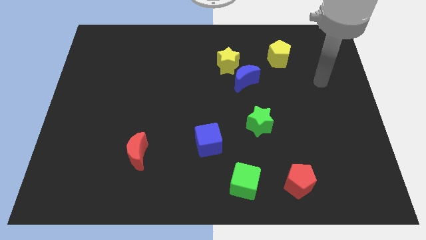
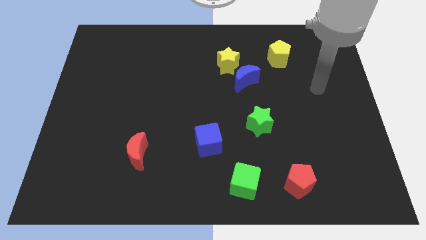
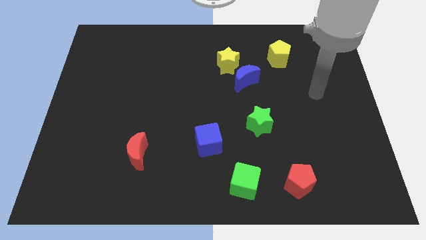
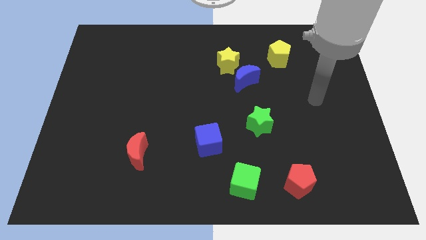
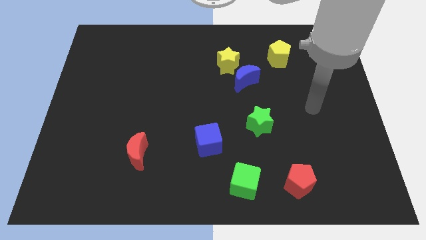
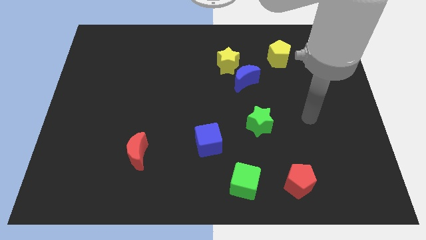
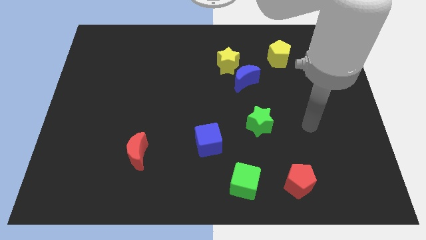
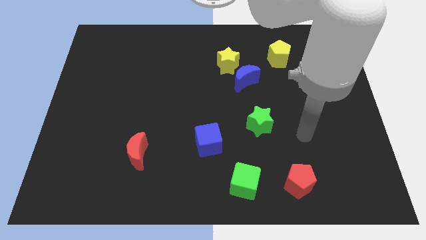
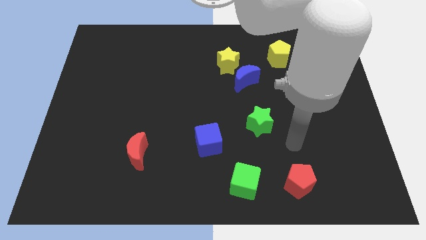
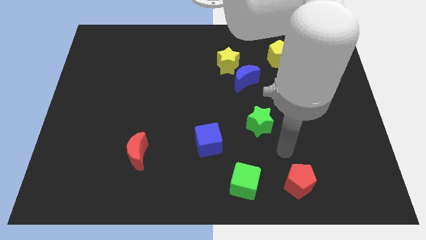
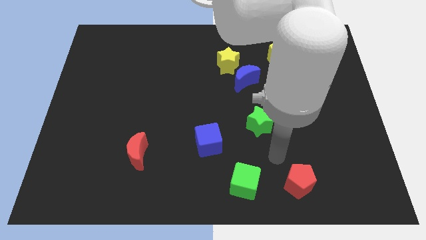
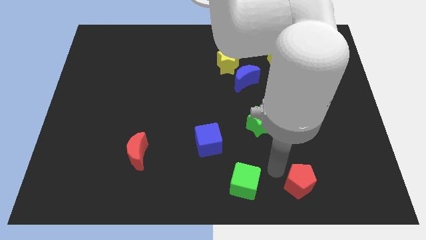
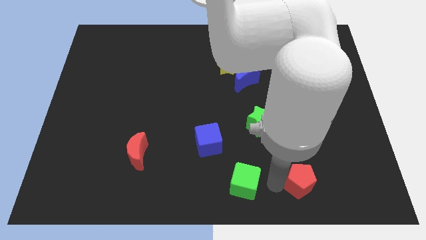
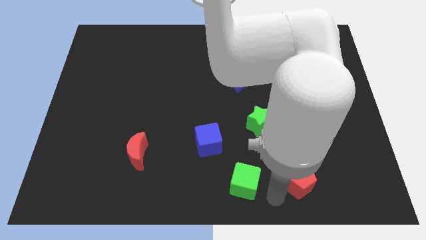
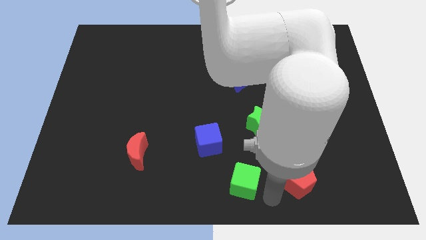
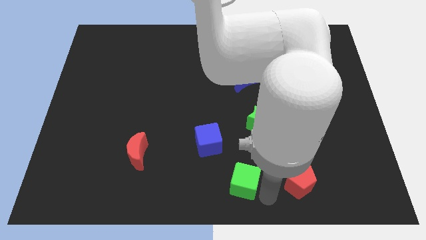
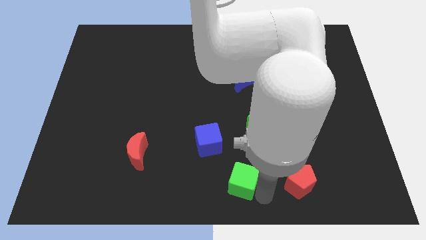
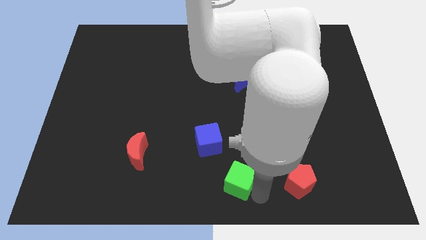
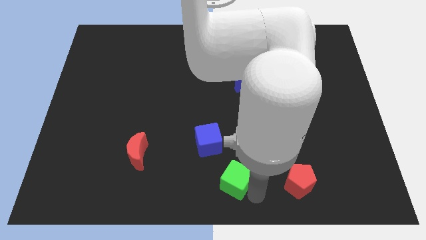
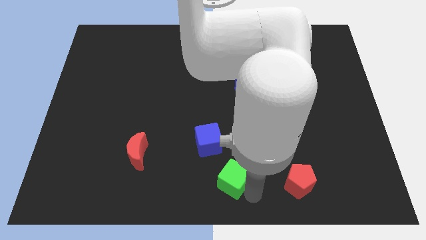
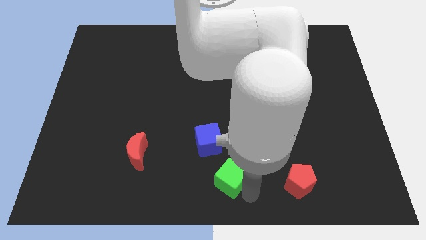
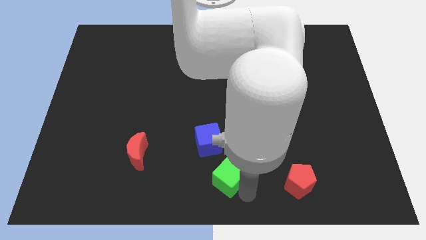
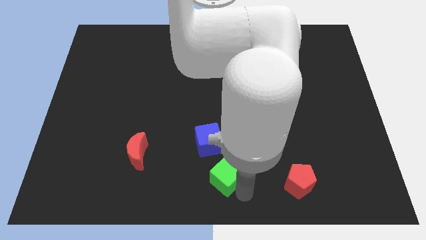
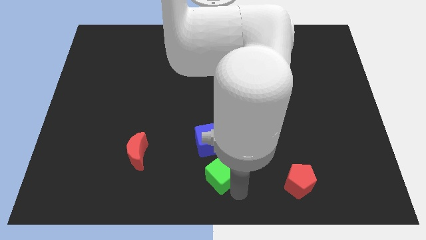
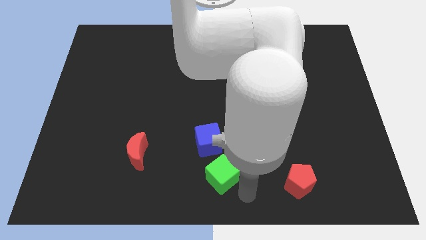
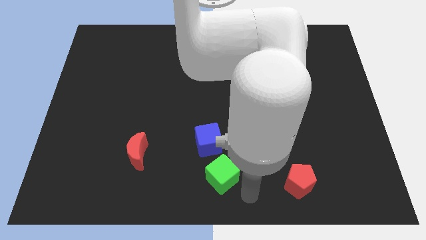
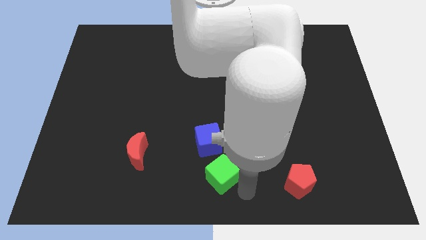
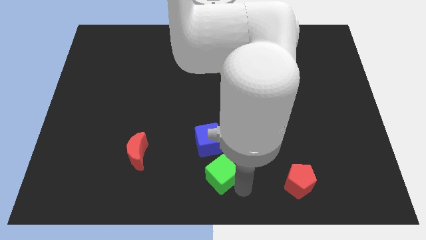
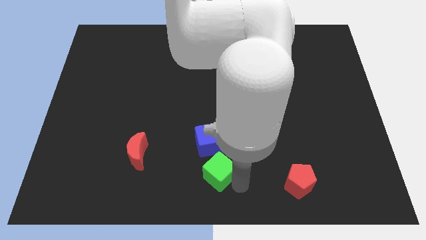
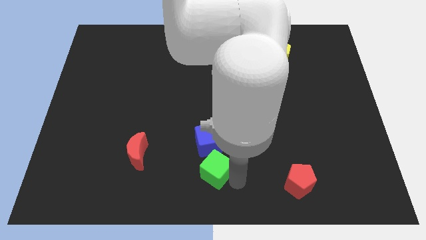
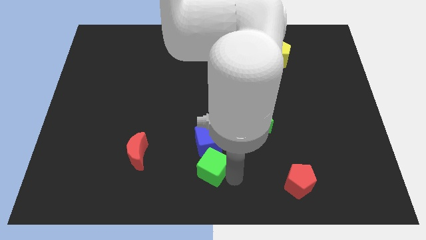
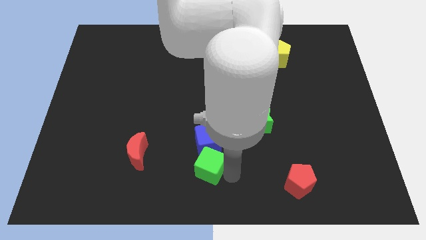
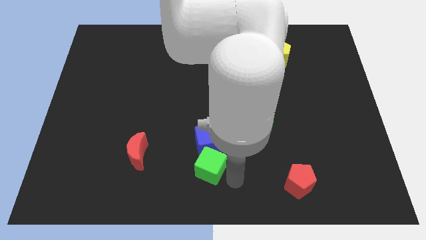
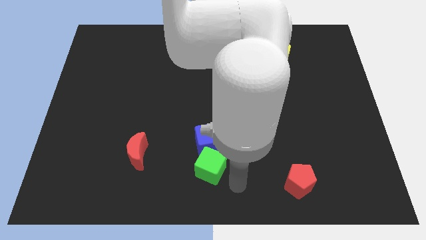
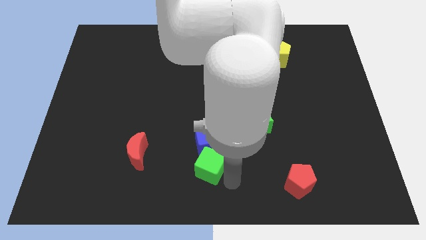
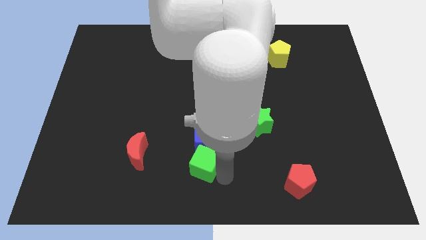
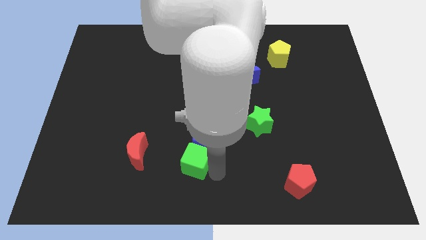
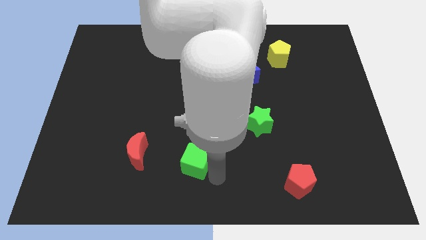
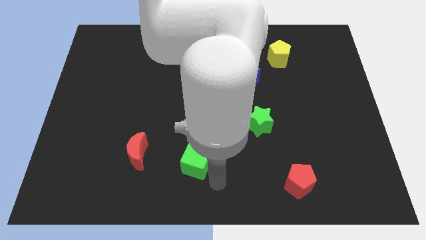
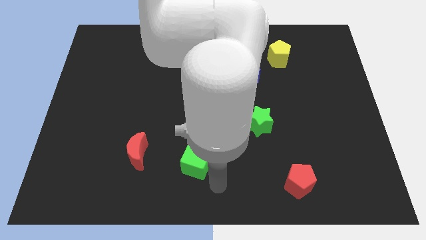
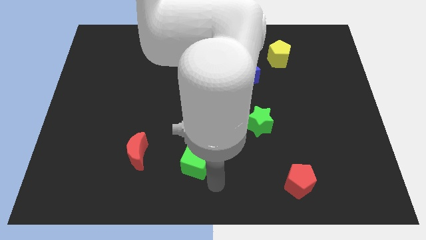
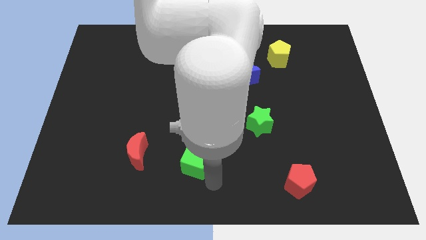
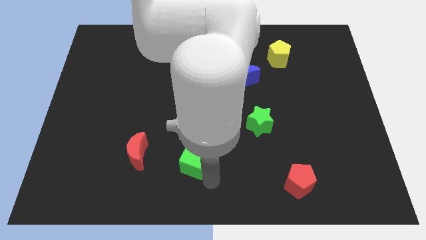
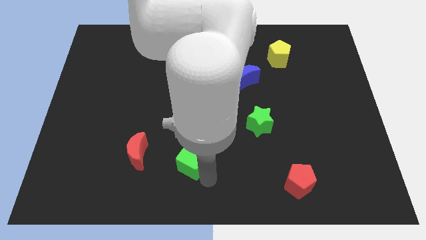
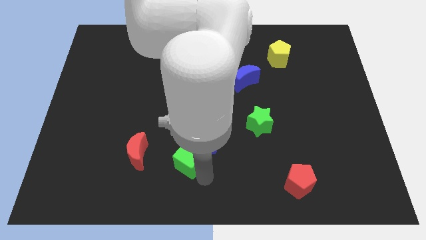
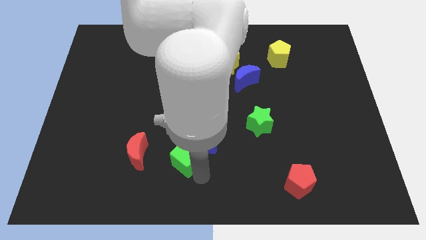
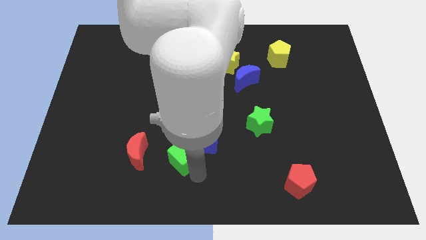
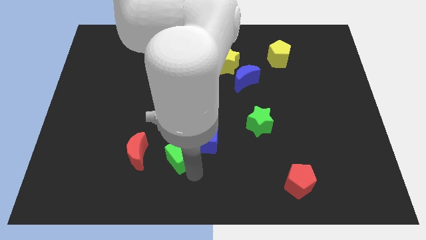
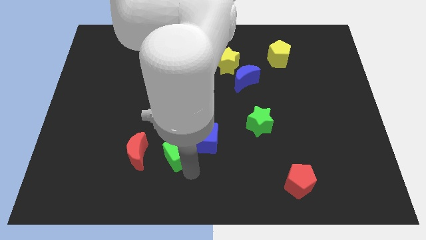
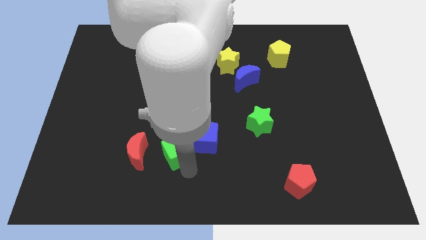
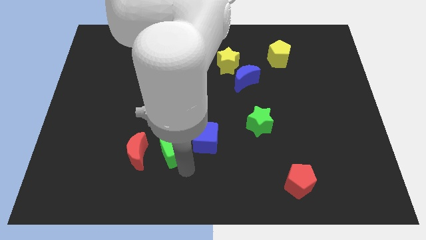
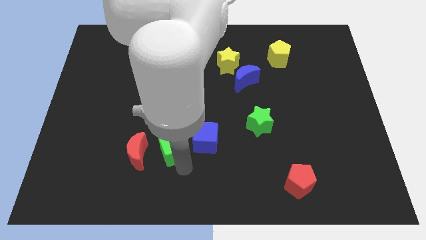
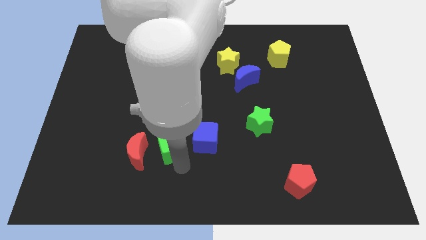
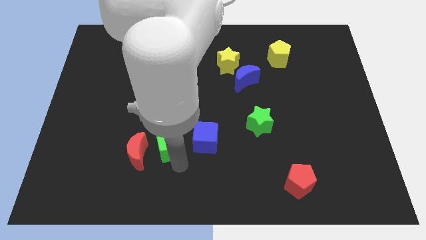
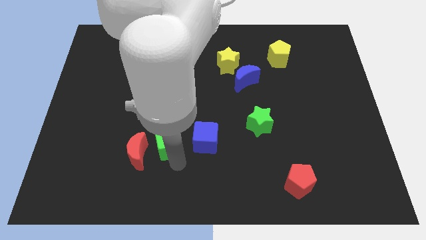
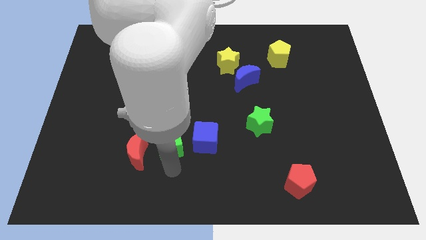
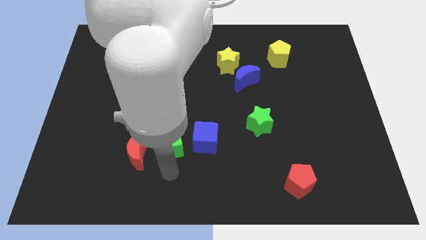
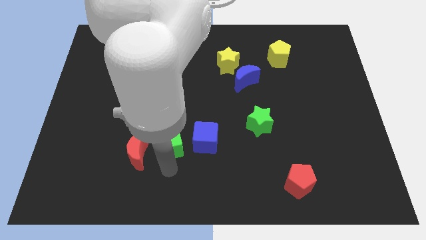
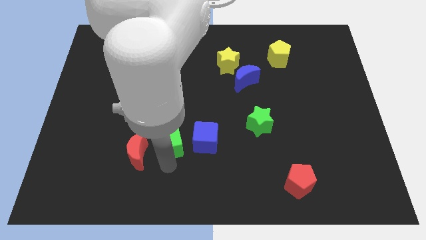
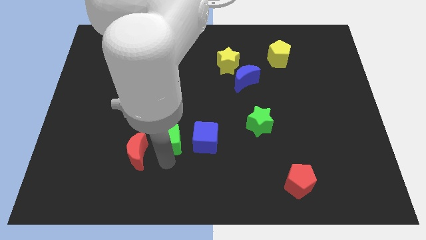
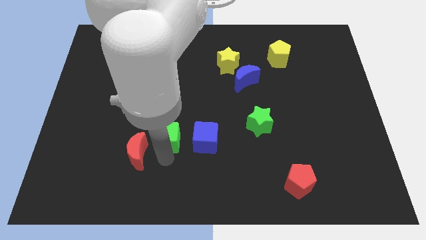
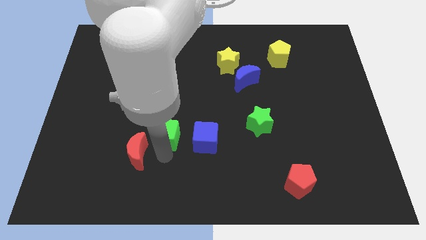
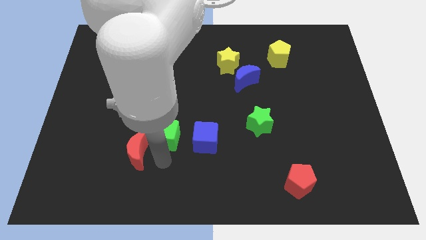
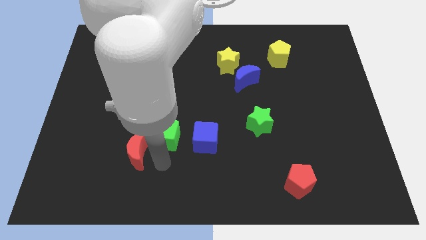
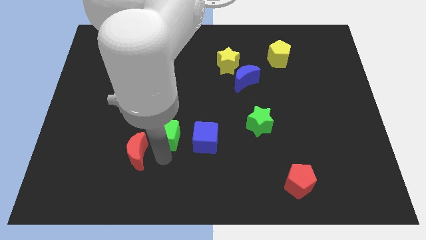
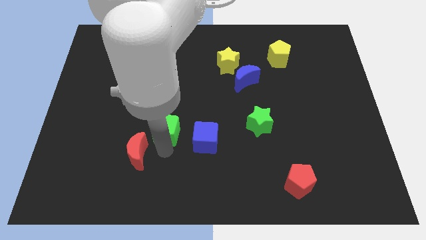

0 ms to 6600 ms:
slide the green cube upwards and to the left diagonally

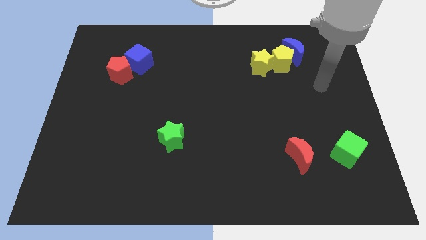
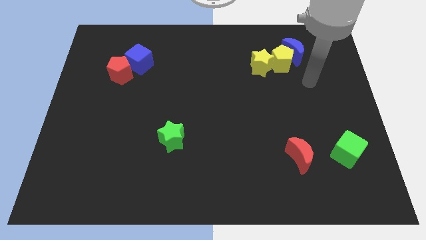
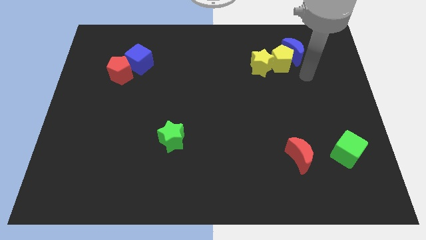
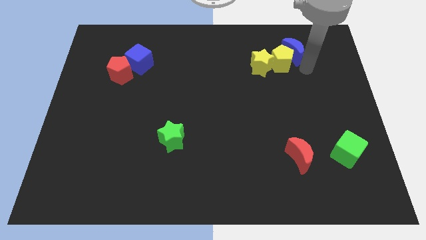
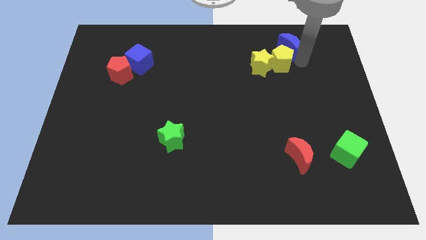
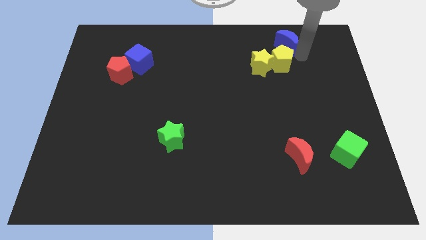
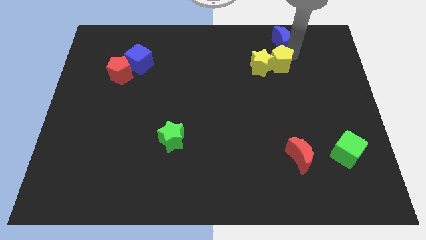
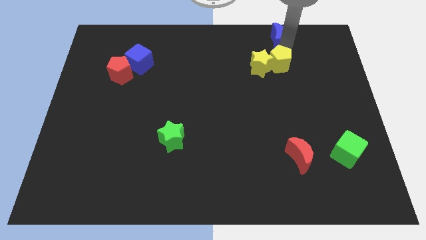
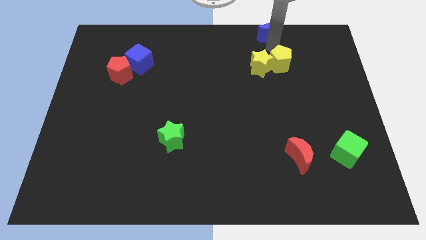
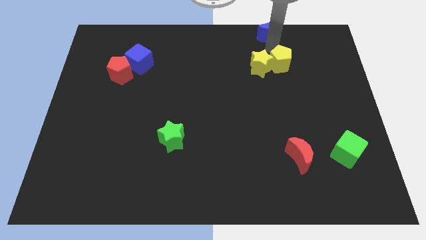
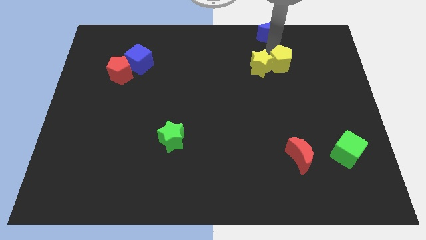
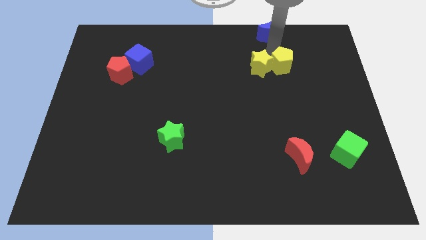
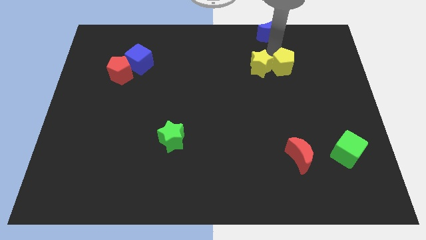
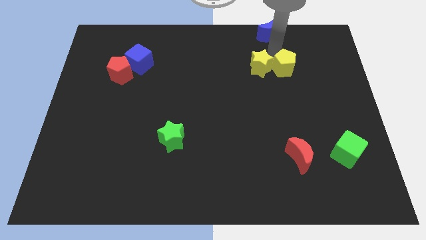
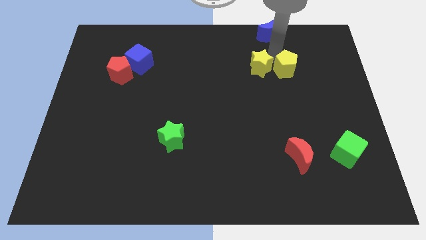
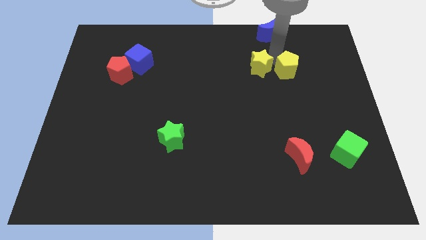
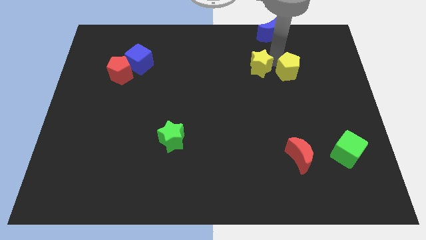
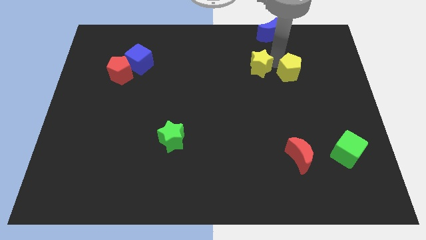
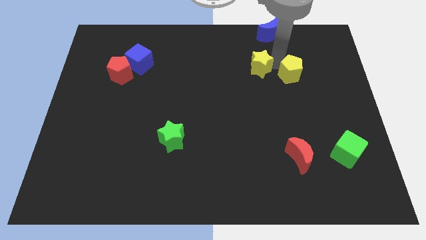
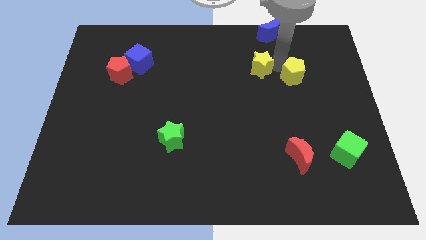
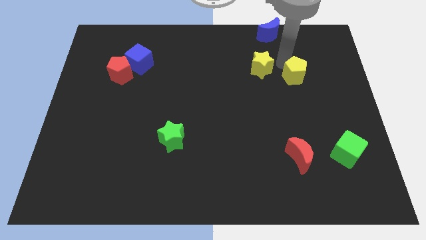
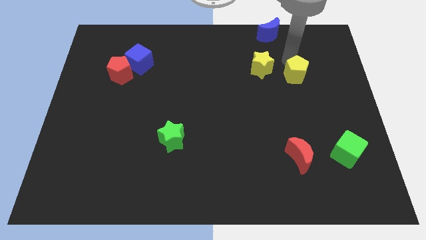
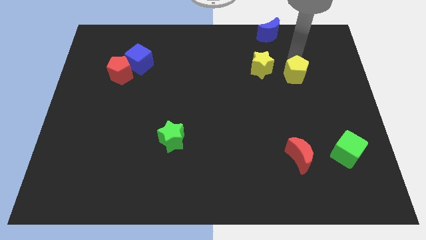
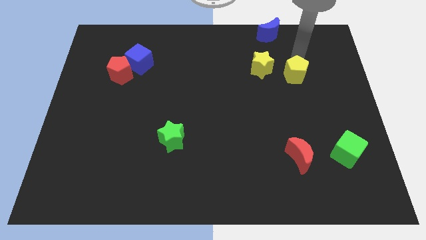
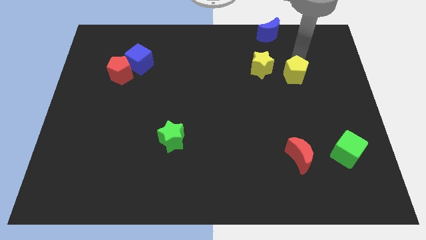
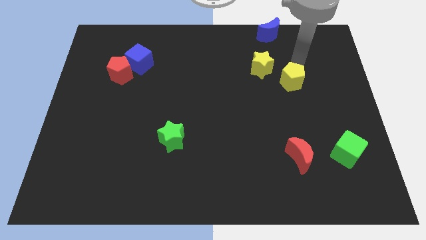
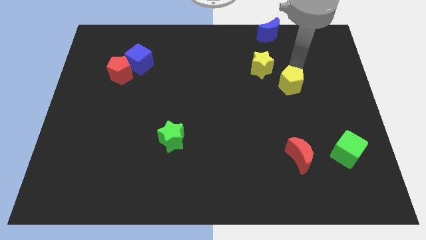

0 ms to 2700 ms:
slightly move the yellow pentagon down
